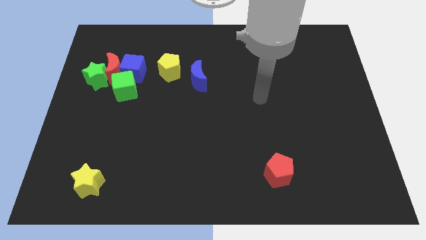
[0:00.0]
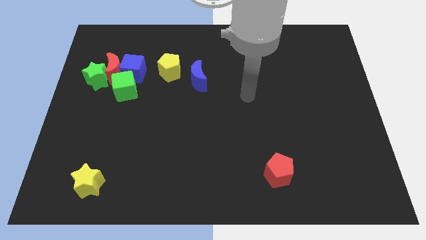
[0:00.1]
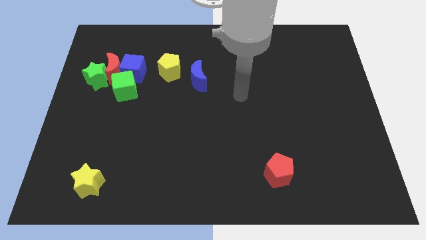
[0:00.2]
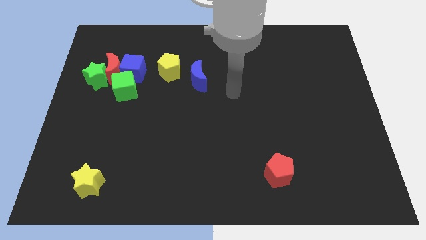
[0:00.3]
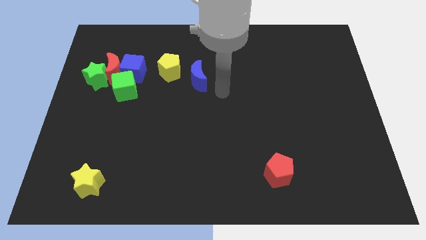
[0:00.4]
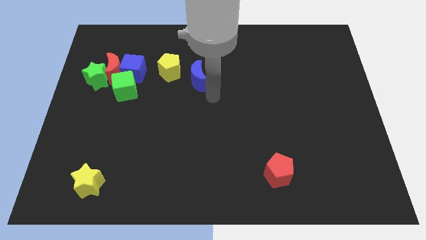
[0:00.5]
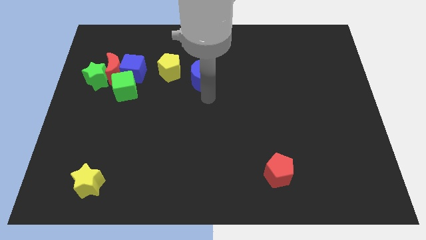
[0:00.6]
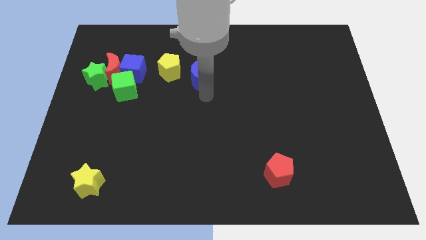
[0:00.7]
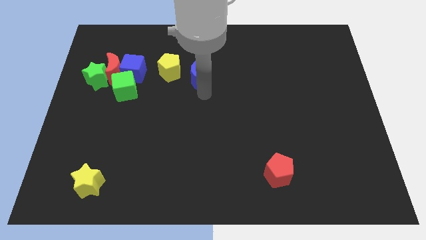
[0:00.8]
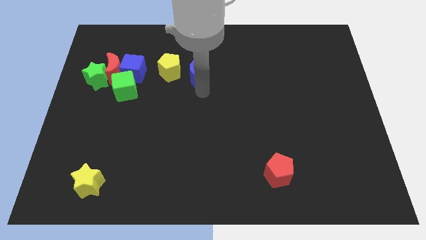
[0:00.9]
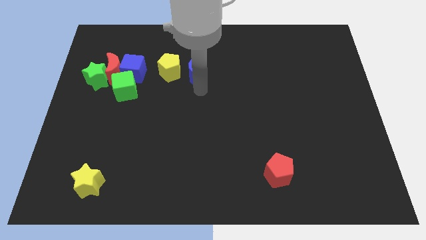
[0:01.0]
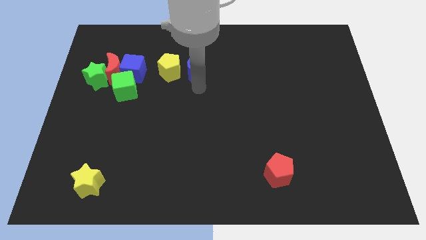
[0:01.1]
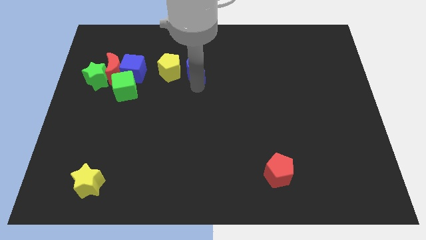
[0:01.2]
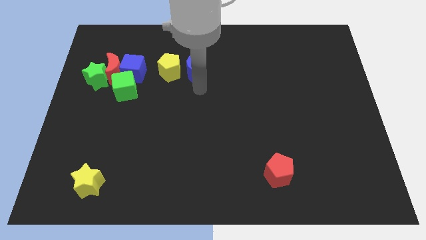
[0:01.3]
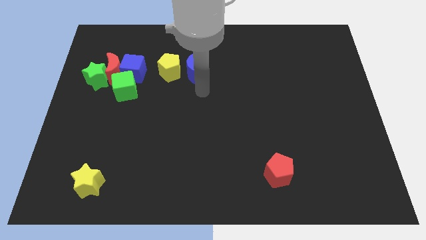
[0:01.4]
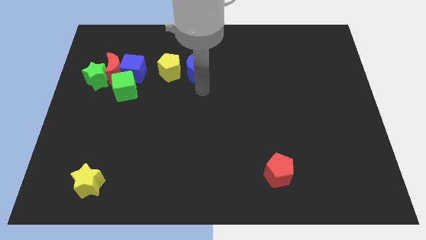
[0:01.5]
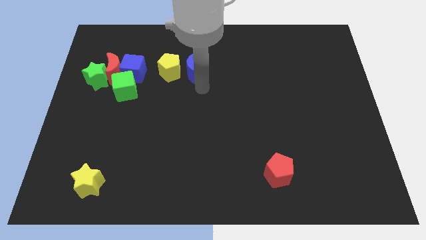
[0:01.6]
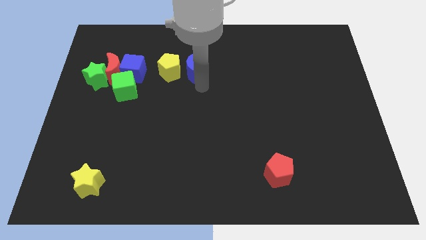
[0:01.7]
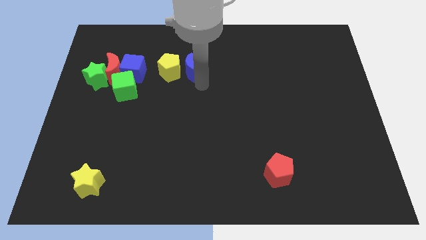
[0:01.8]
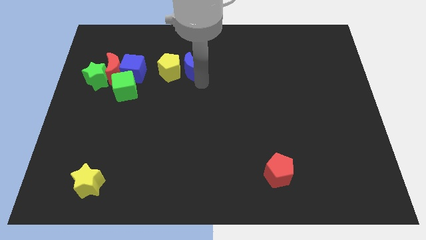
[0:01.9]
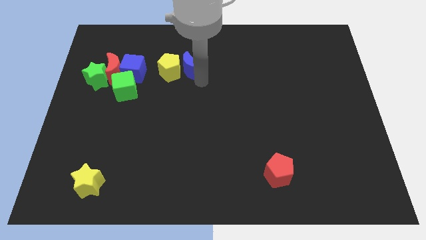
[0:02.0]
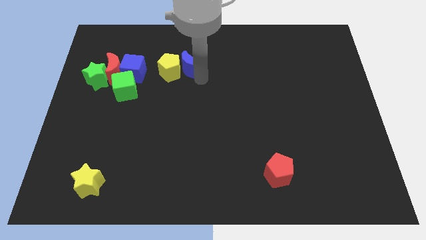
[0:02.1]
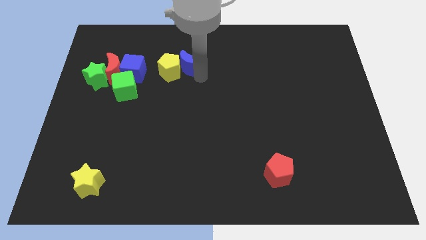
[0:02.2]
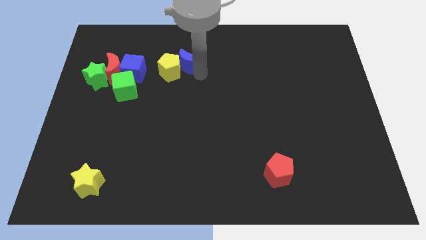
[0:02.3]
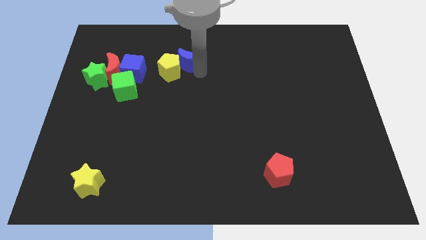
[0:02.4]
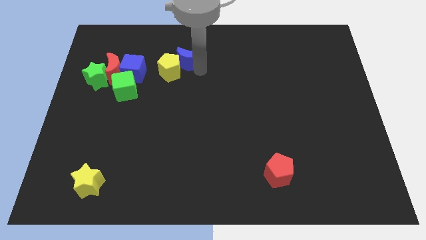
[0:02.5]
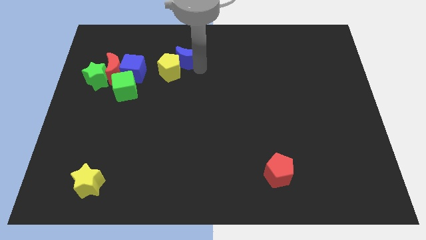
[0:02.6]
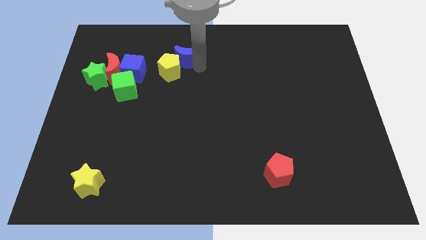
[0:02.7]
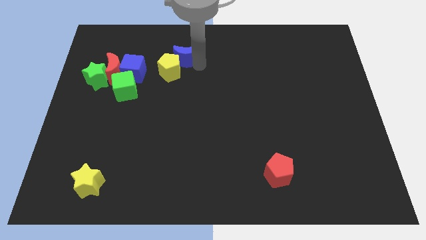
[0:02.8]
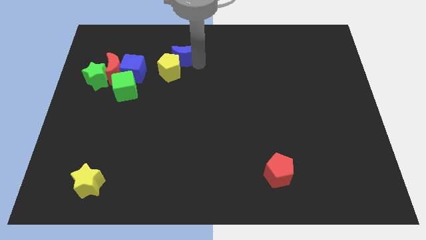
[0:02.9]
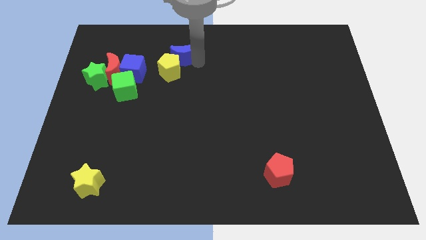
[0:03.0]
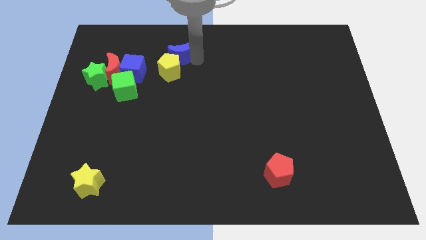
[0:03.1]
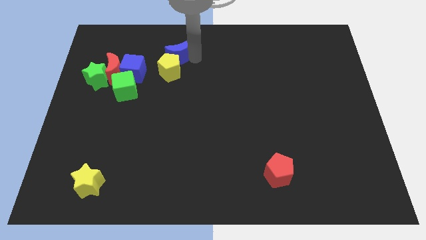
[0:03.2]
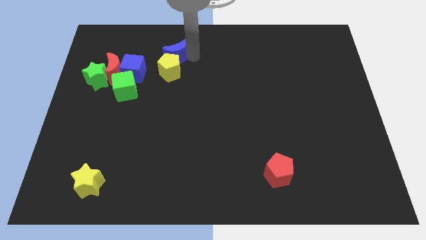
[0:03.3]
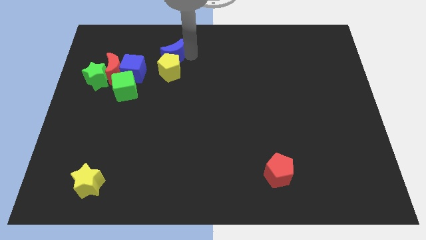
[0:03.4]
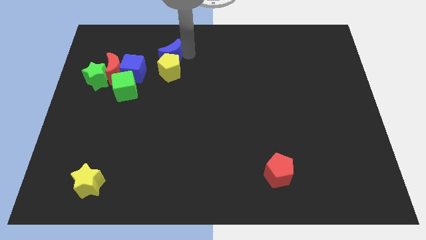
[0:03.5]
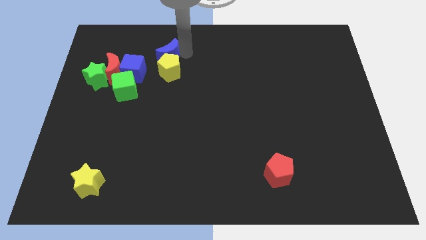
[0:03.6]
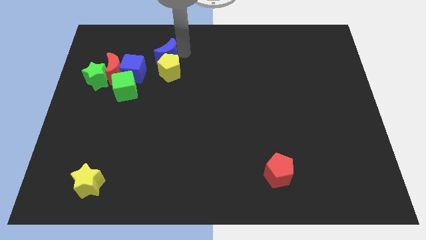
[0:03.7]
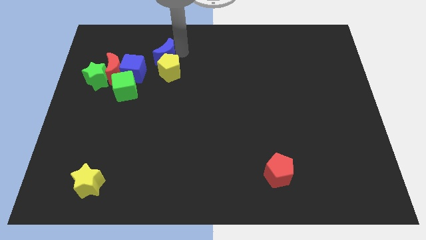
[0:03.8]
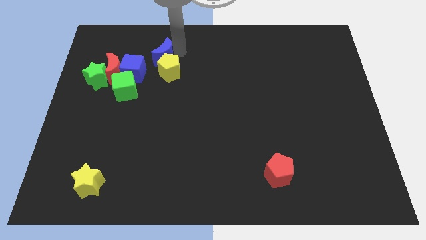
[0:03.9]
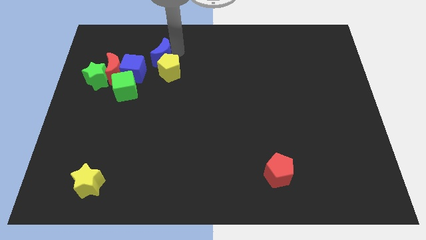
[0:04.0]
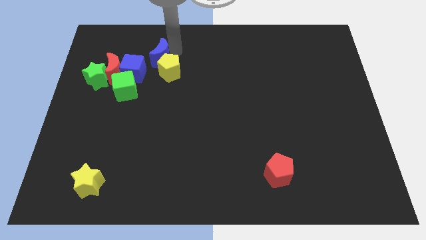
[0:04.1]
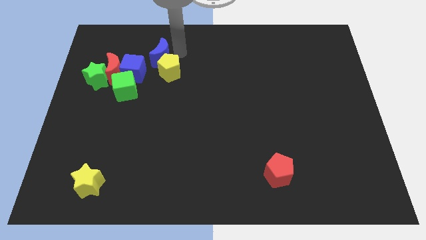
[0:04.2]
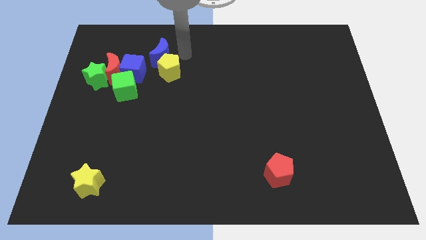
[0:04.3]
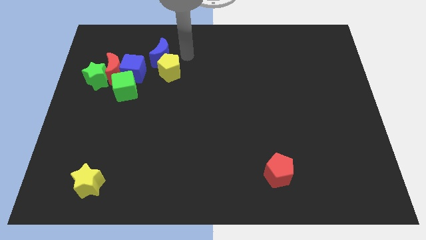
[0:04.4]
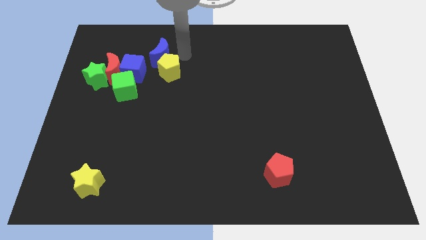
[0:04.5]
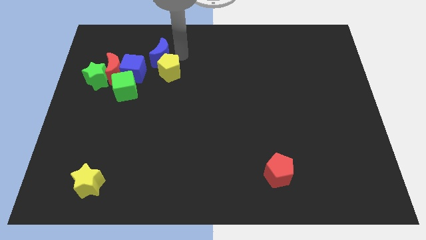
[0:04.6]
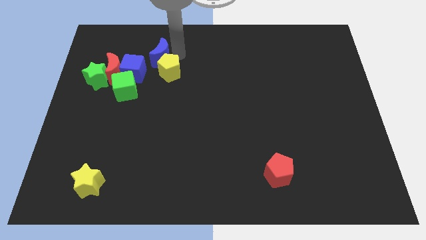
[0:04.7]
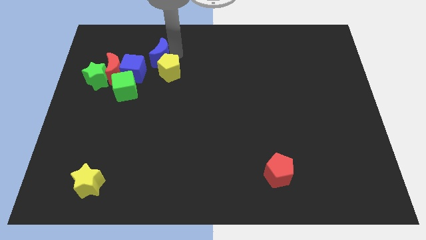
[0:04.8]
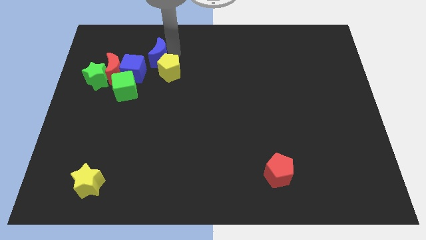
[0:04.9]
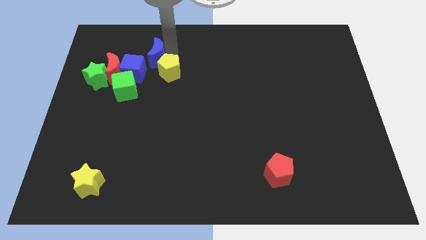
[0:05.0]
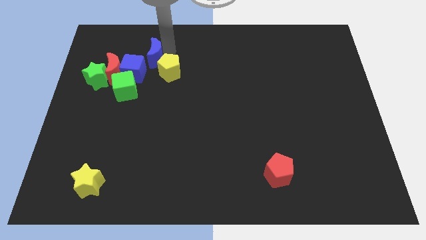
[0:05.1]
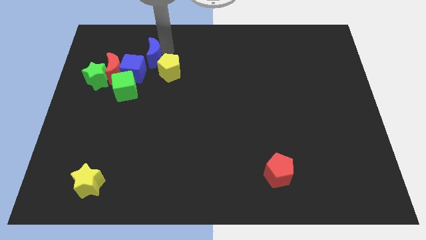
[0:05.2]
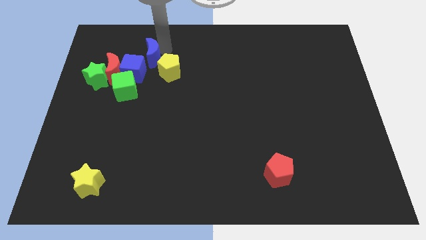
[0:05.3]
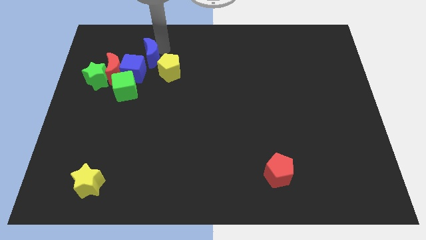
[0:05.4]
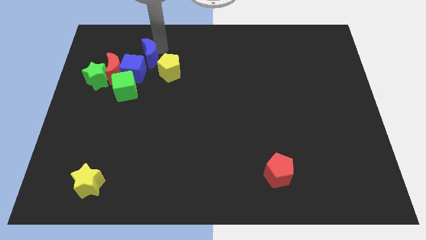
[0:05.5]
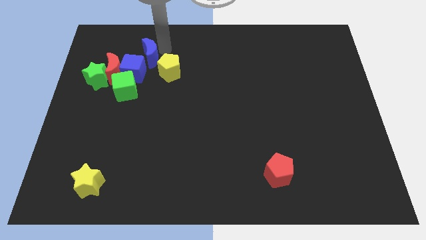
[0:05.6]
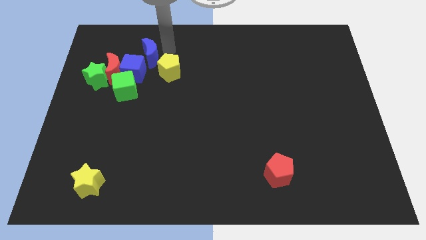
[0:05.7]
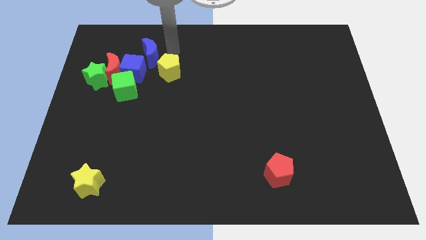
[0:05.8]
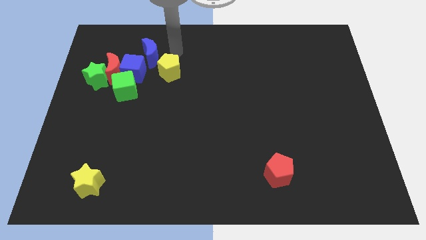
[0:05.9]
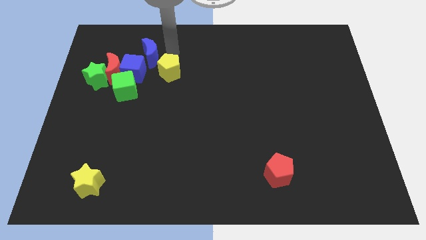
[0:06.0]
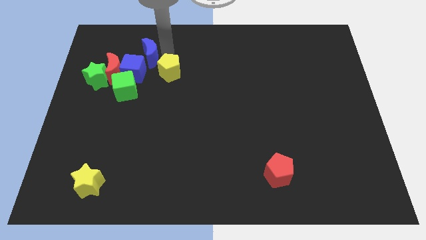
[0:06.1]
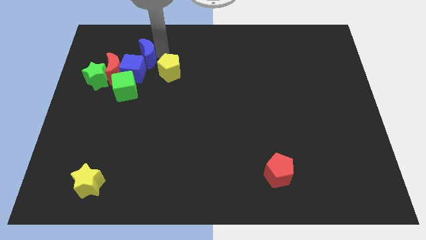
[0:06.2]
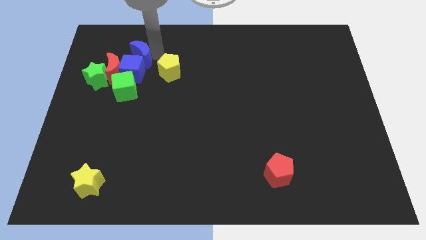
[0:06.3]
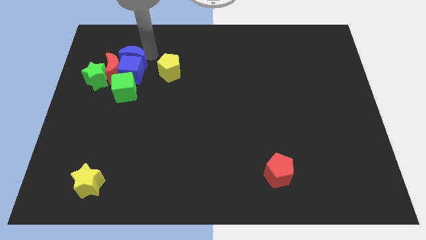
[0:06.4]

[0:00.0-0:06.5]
push the blue moon to the top right of the green star

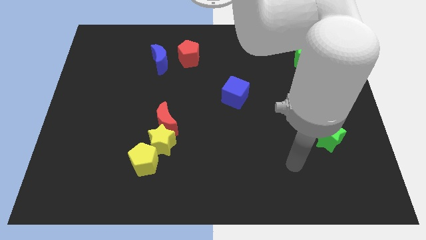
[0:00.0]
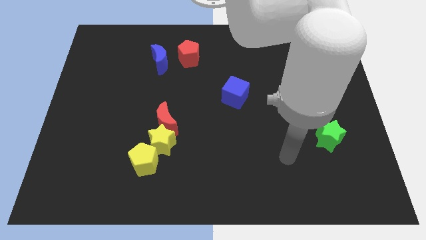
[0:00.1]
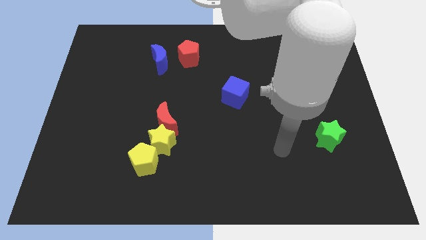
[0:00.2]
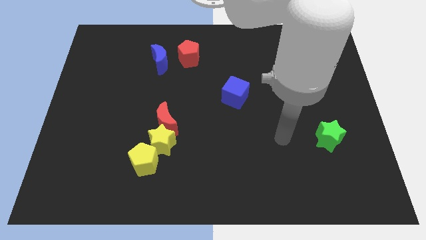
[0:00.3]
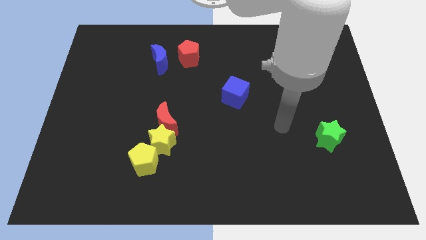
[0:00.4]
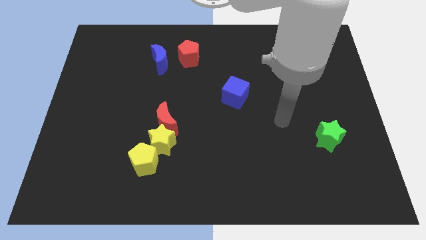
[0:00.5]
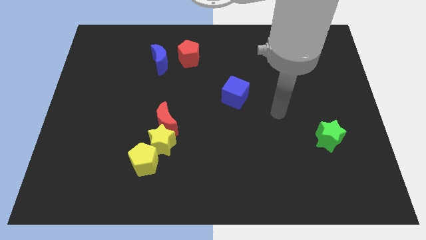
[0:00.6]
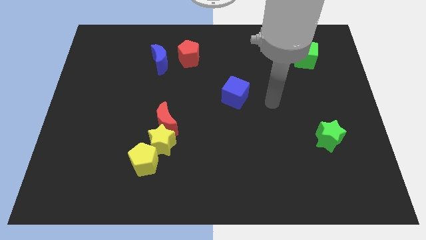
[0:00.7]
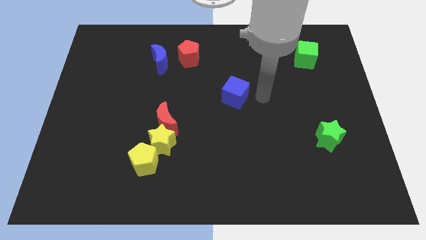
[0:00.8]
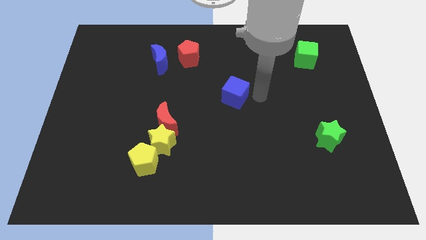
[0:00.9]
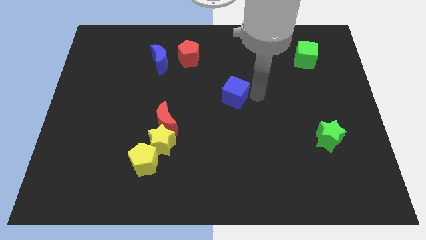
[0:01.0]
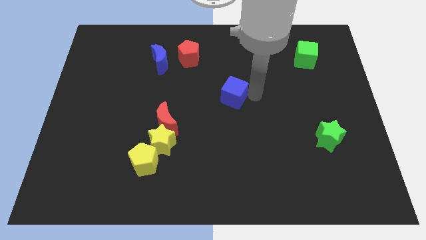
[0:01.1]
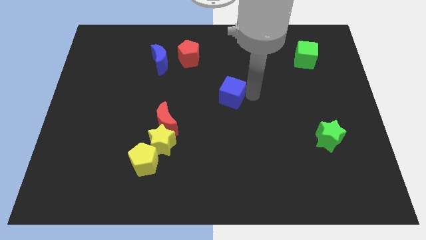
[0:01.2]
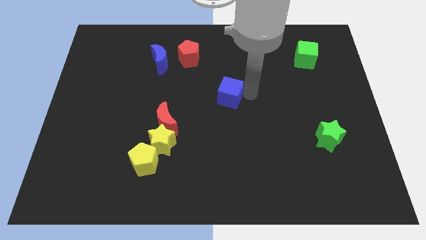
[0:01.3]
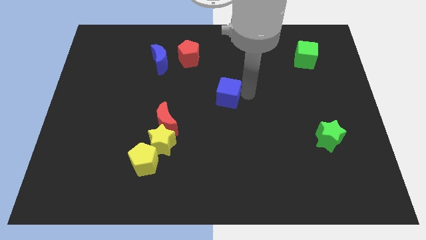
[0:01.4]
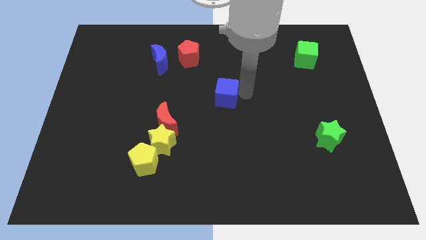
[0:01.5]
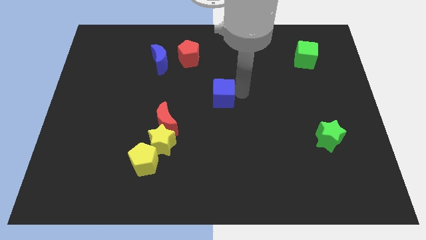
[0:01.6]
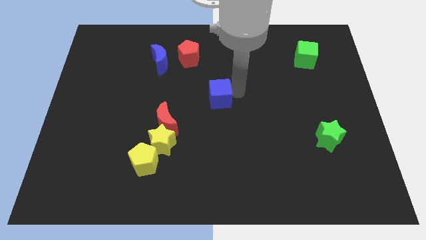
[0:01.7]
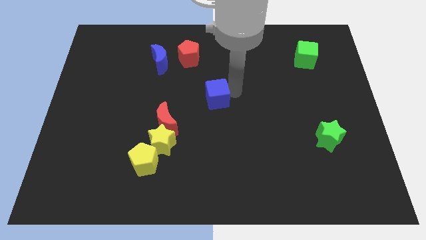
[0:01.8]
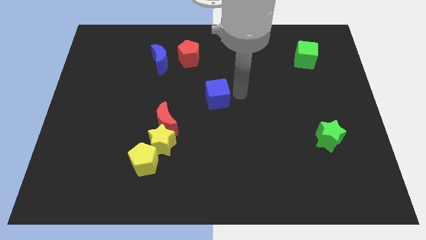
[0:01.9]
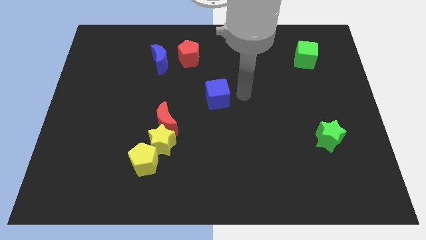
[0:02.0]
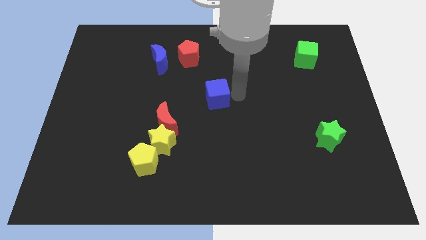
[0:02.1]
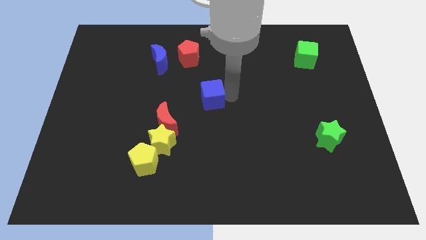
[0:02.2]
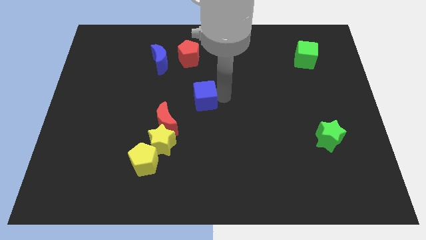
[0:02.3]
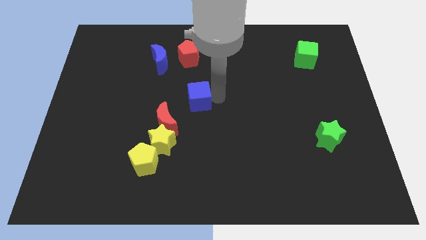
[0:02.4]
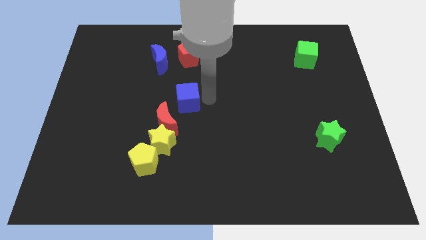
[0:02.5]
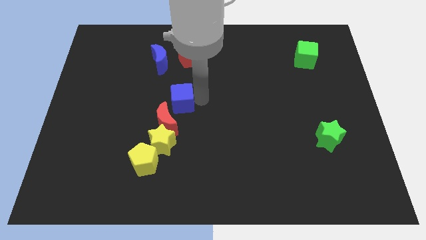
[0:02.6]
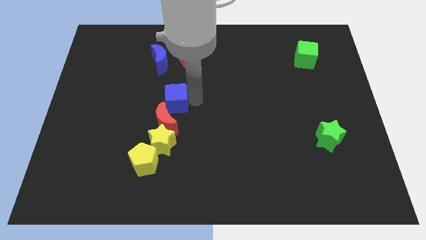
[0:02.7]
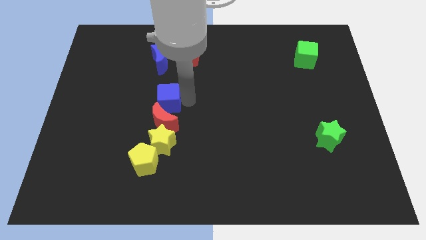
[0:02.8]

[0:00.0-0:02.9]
slide the blue cube to the top left of the red moon
